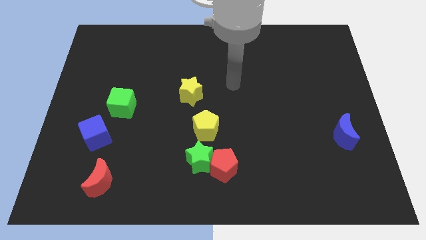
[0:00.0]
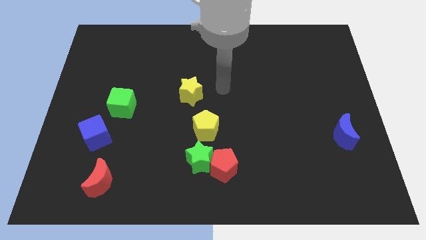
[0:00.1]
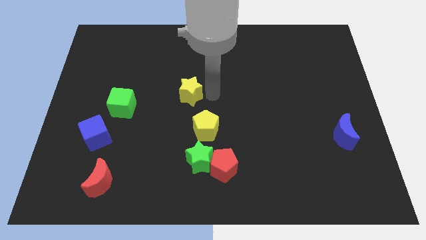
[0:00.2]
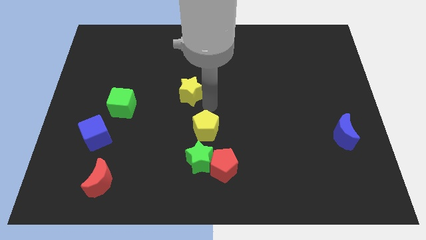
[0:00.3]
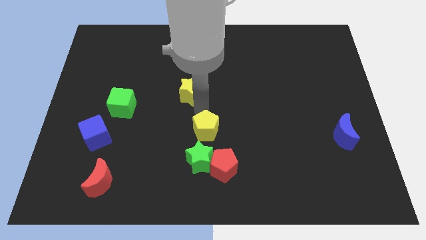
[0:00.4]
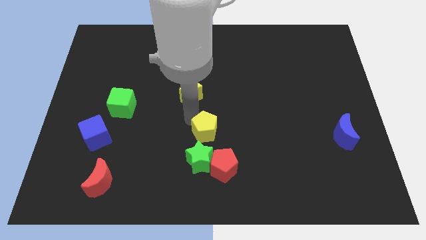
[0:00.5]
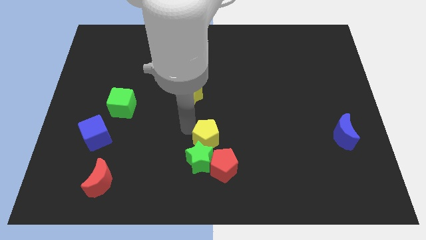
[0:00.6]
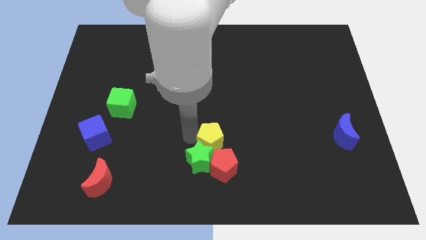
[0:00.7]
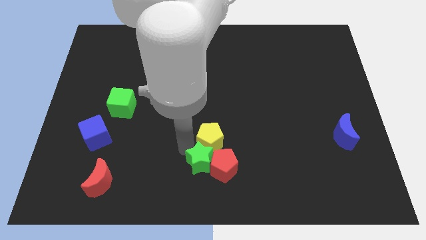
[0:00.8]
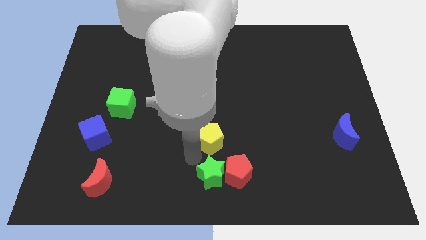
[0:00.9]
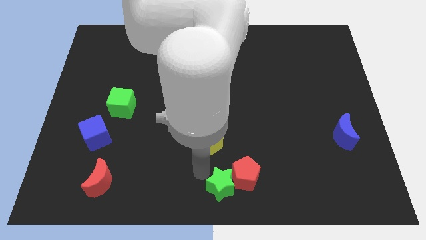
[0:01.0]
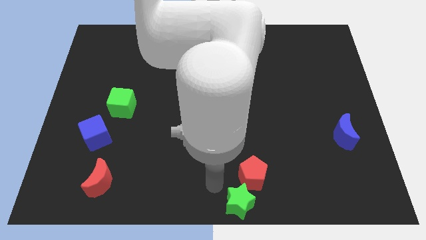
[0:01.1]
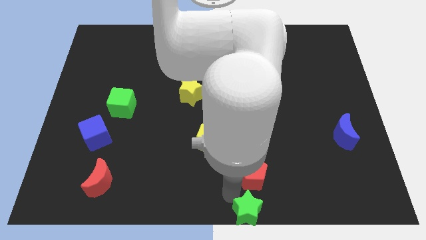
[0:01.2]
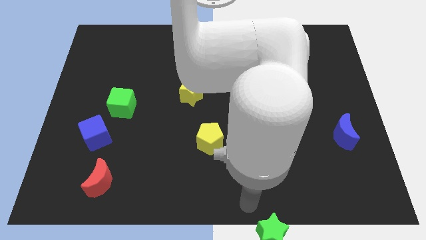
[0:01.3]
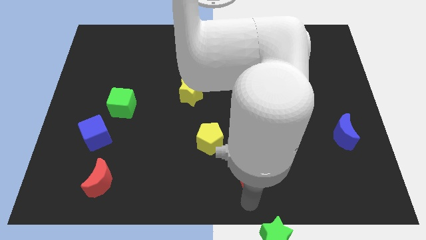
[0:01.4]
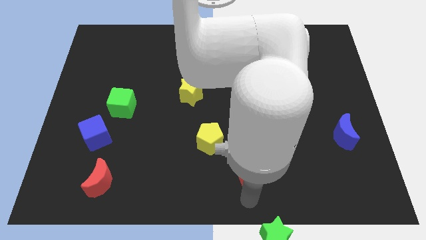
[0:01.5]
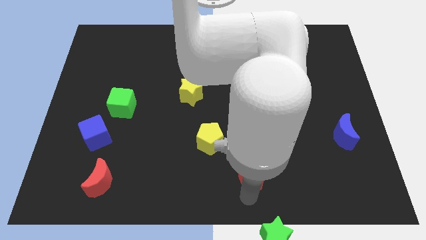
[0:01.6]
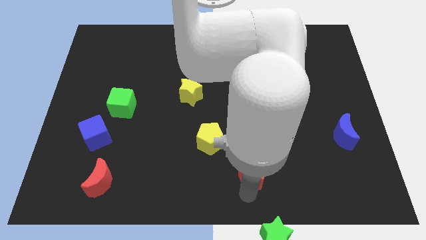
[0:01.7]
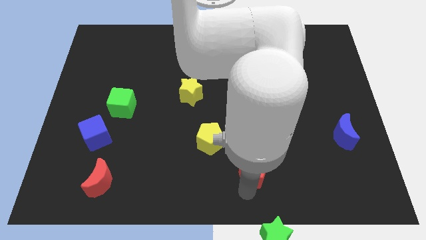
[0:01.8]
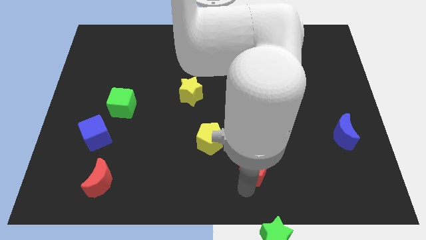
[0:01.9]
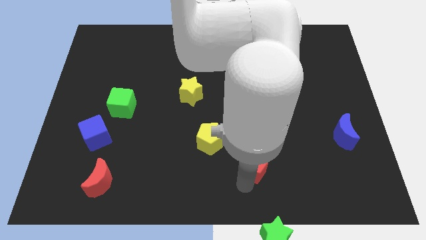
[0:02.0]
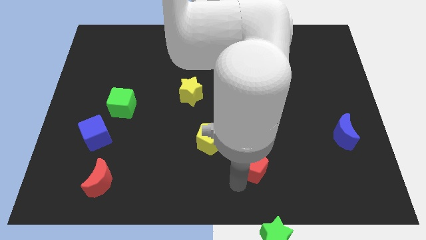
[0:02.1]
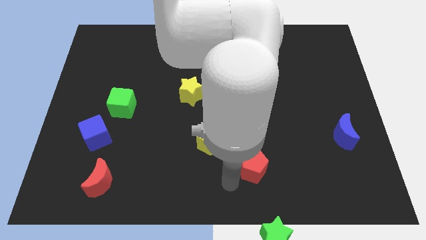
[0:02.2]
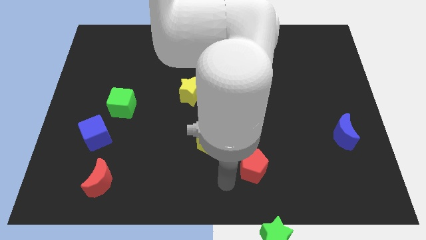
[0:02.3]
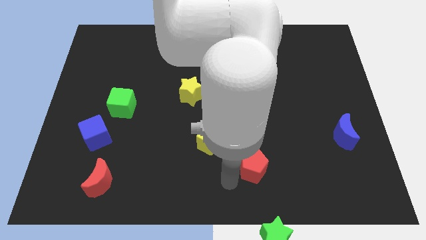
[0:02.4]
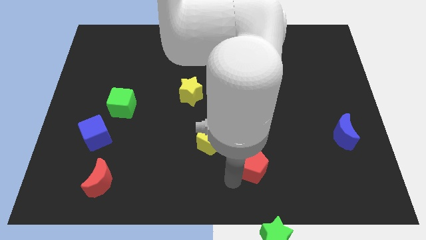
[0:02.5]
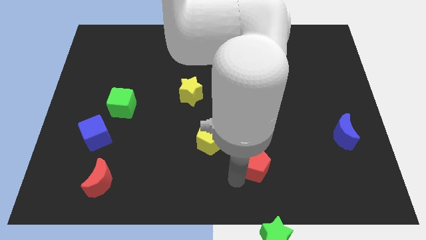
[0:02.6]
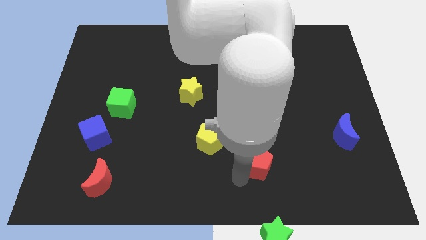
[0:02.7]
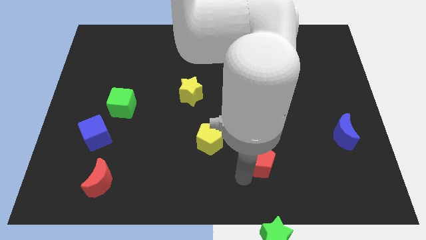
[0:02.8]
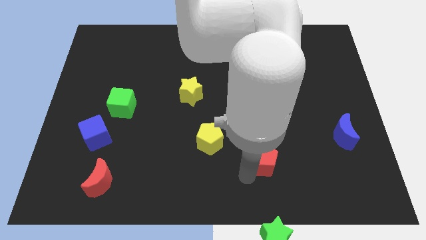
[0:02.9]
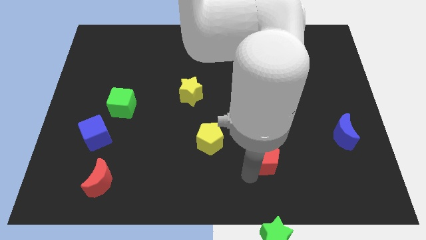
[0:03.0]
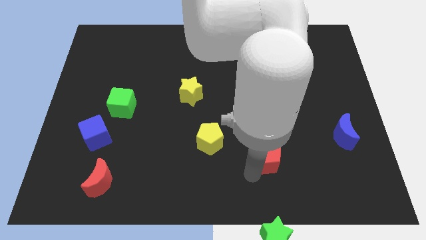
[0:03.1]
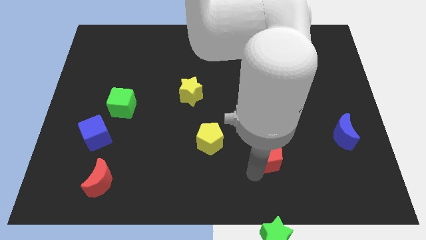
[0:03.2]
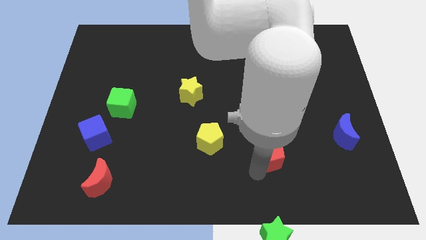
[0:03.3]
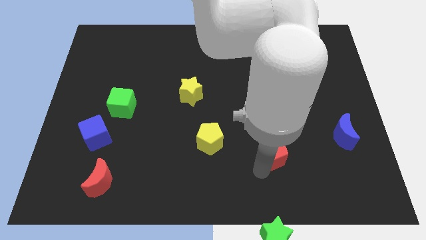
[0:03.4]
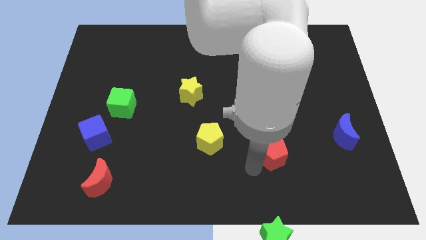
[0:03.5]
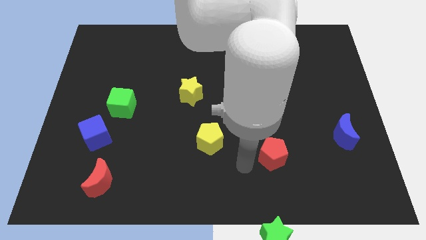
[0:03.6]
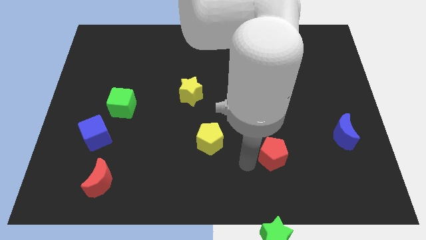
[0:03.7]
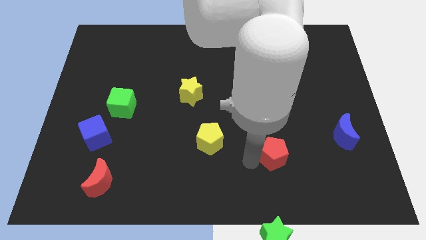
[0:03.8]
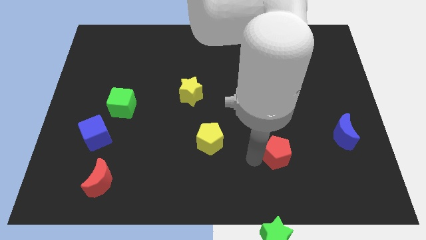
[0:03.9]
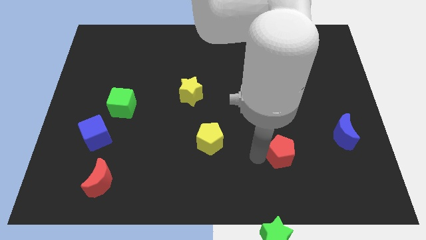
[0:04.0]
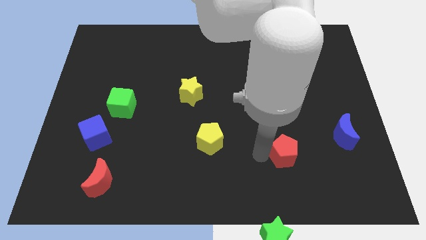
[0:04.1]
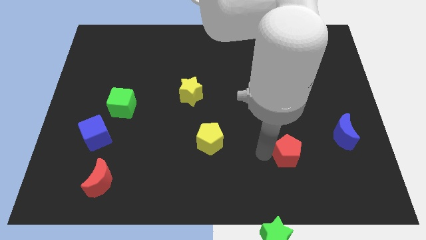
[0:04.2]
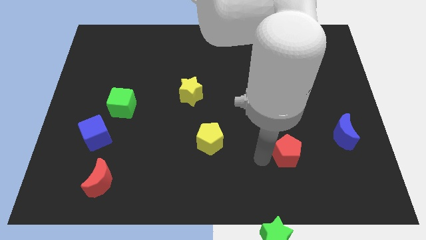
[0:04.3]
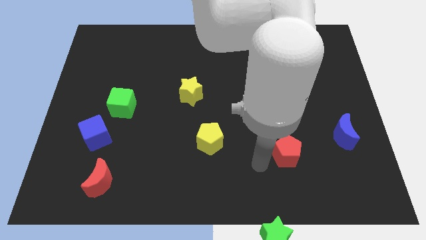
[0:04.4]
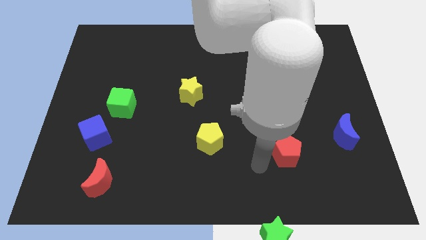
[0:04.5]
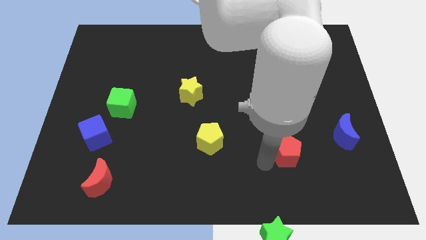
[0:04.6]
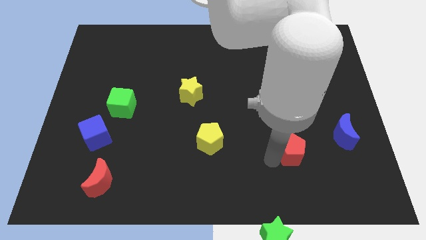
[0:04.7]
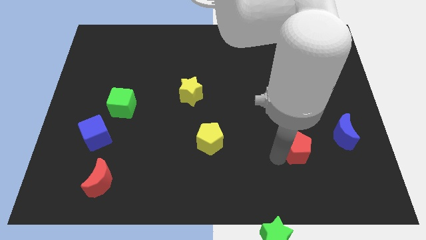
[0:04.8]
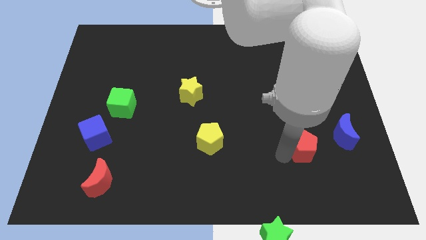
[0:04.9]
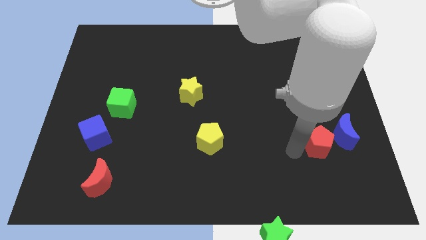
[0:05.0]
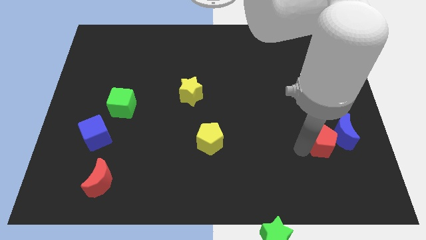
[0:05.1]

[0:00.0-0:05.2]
put the red pentagon towards the blue moon

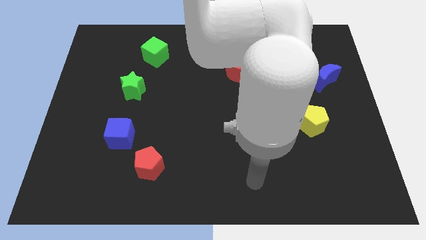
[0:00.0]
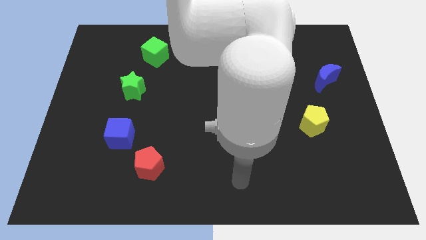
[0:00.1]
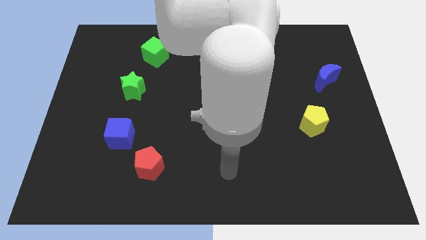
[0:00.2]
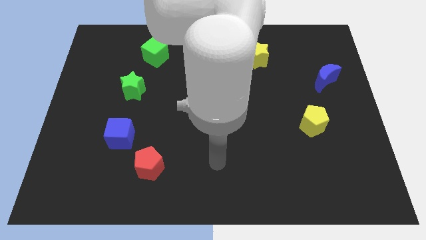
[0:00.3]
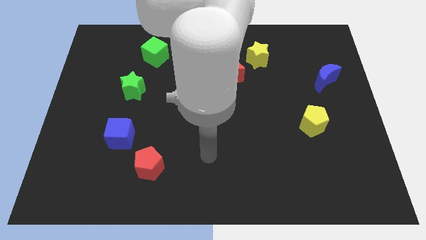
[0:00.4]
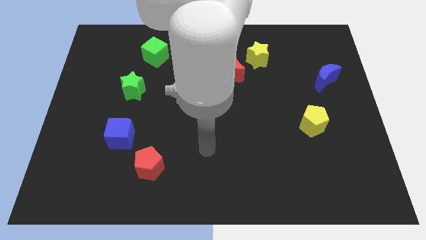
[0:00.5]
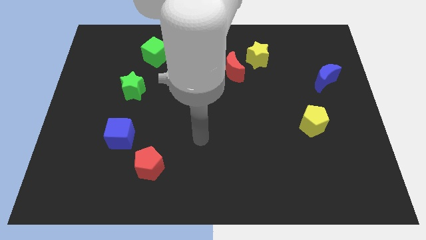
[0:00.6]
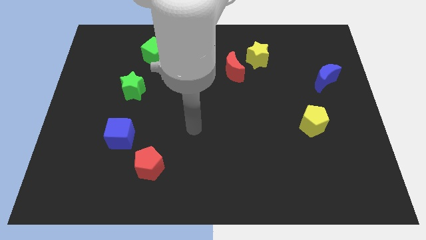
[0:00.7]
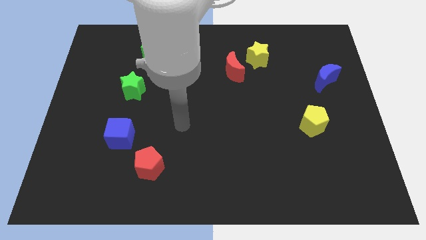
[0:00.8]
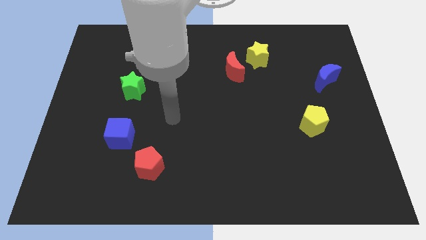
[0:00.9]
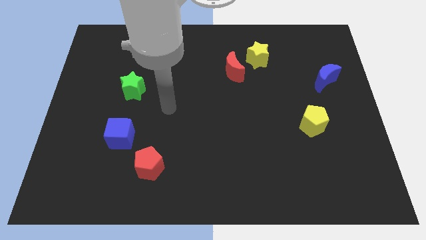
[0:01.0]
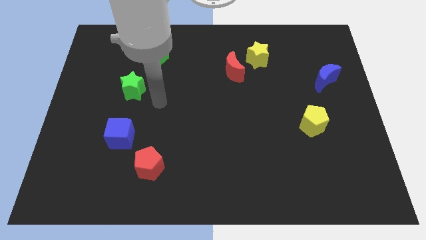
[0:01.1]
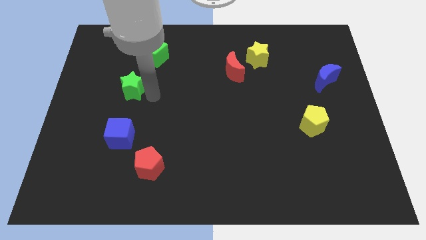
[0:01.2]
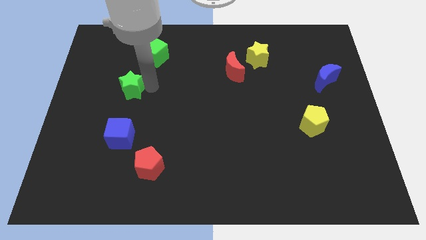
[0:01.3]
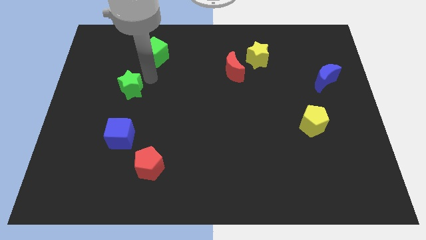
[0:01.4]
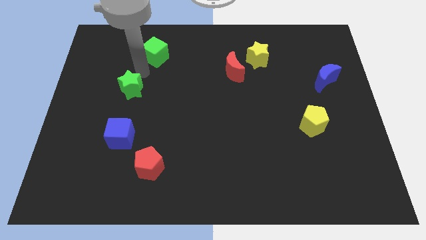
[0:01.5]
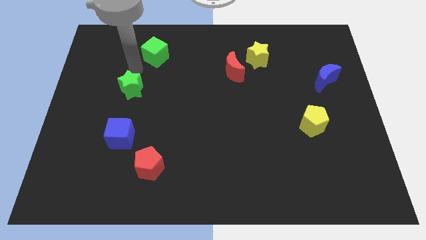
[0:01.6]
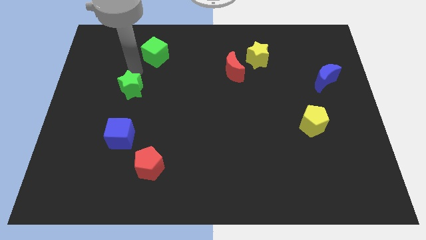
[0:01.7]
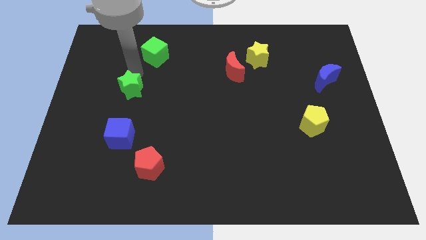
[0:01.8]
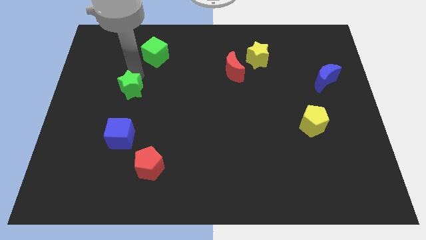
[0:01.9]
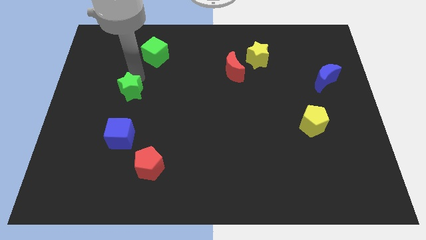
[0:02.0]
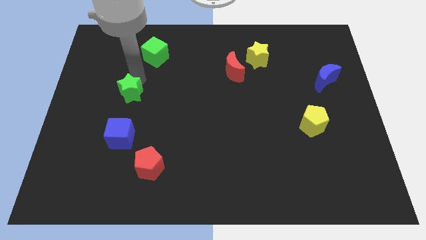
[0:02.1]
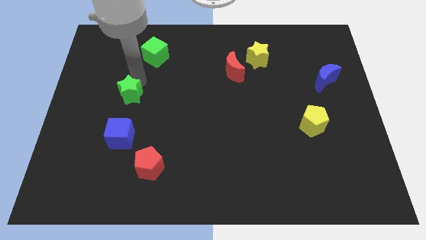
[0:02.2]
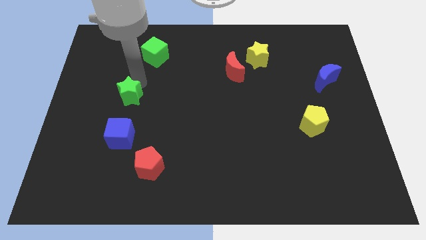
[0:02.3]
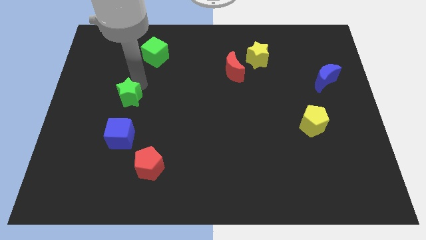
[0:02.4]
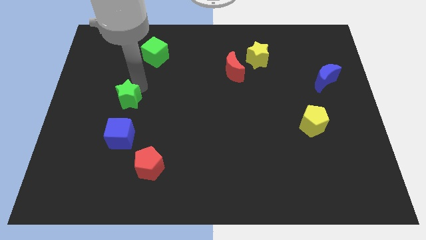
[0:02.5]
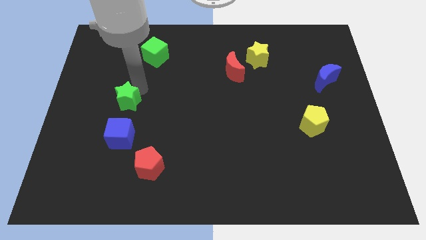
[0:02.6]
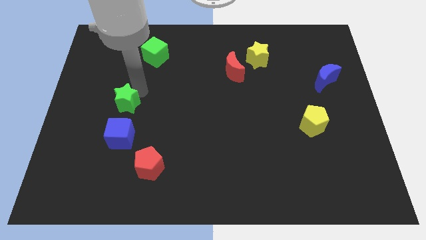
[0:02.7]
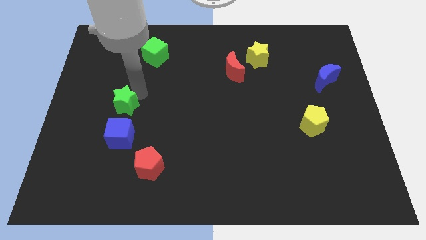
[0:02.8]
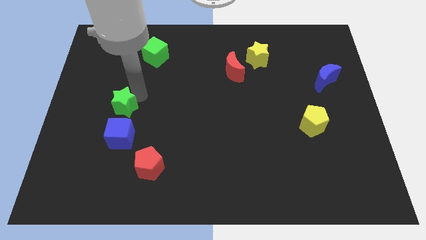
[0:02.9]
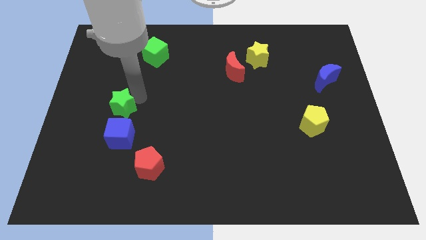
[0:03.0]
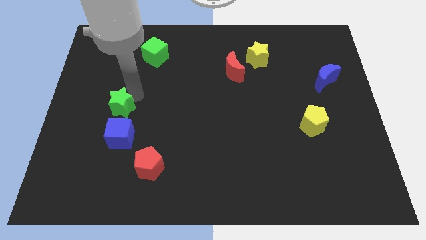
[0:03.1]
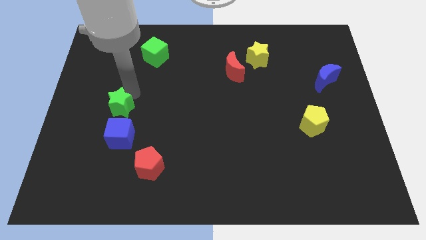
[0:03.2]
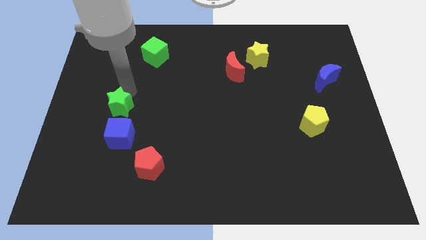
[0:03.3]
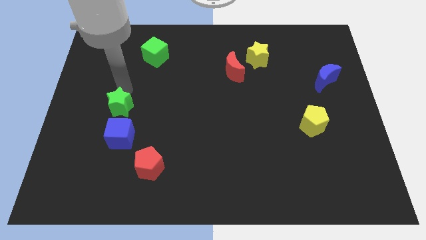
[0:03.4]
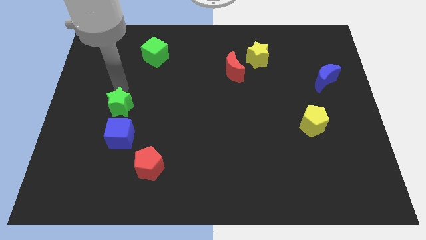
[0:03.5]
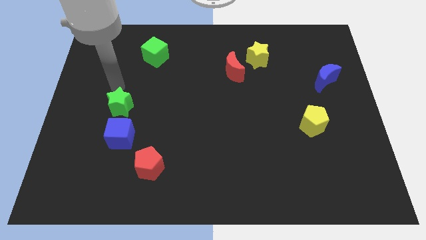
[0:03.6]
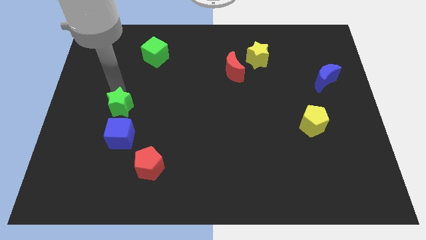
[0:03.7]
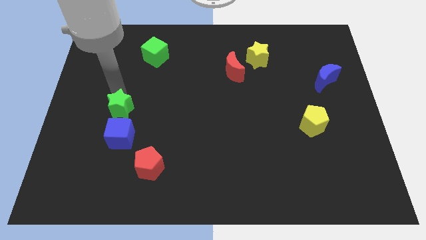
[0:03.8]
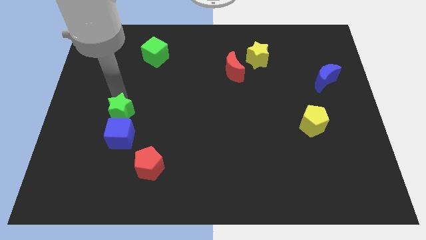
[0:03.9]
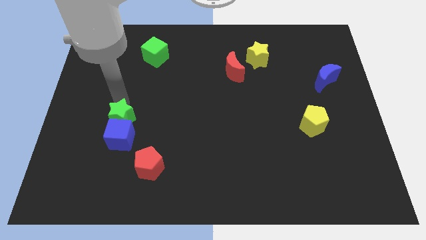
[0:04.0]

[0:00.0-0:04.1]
move the green star towards the blue cube
